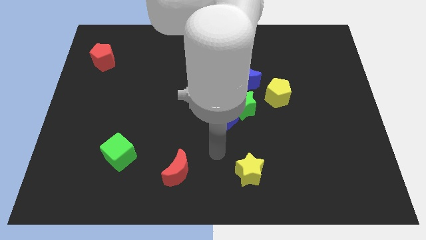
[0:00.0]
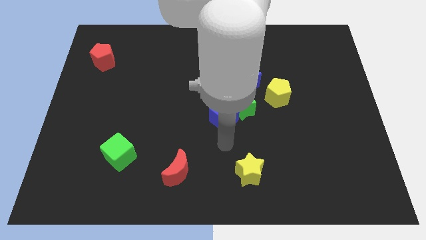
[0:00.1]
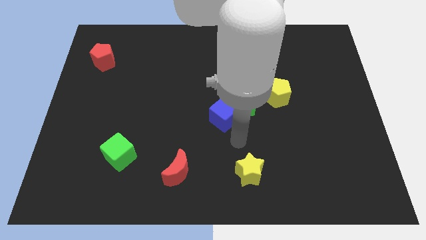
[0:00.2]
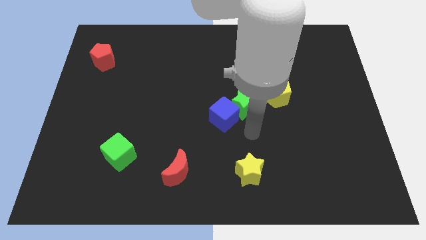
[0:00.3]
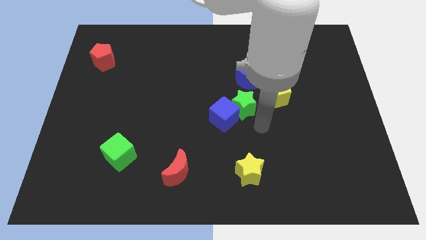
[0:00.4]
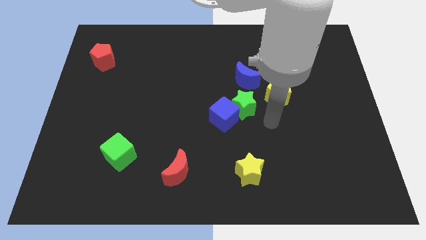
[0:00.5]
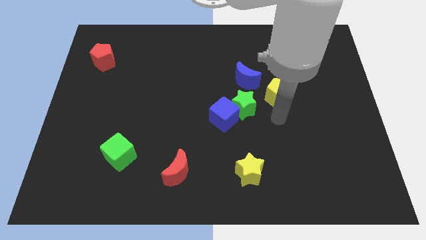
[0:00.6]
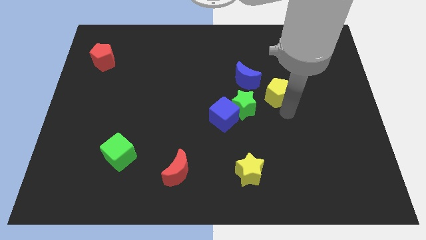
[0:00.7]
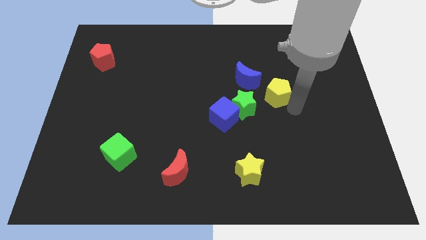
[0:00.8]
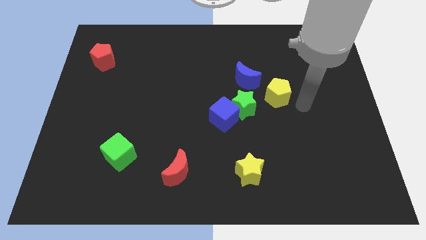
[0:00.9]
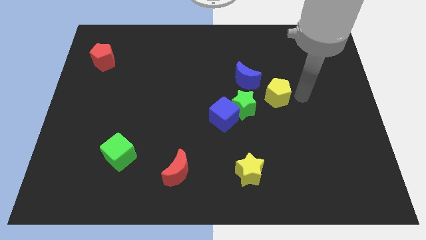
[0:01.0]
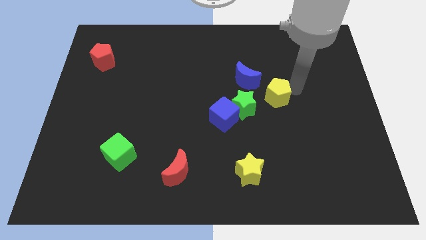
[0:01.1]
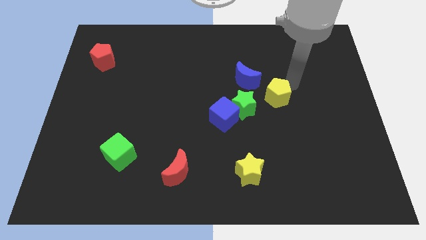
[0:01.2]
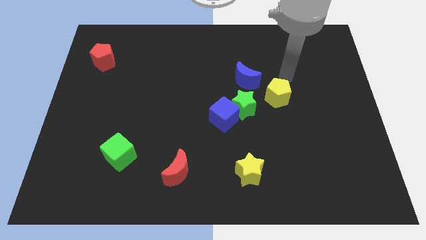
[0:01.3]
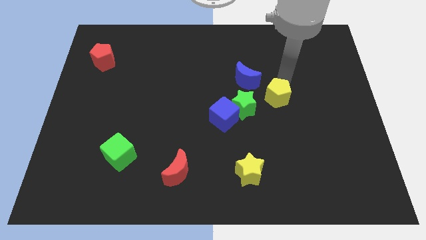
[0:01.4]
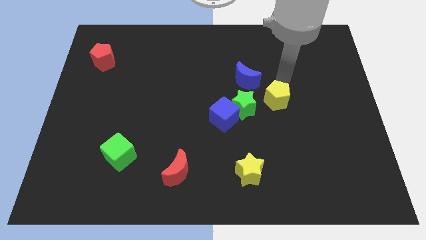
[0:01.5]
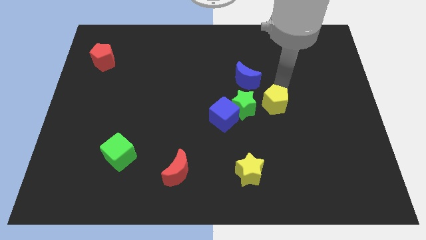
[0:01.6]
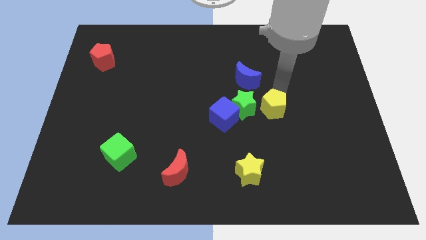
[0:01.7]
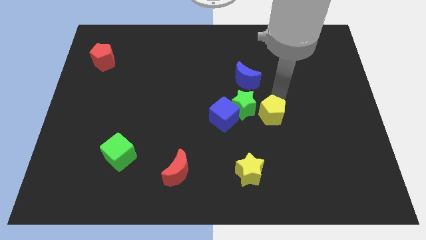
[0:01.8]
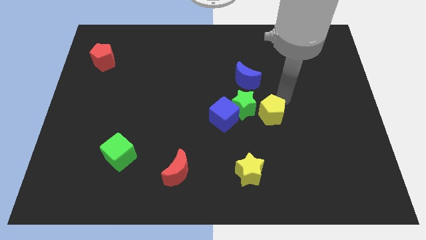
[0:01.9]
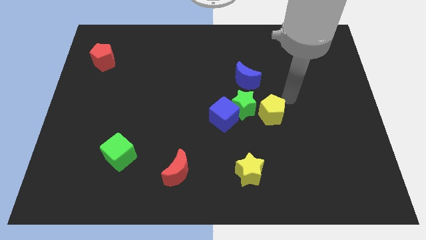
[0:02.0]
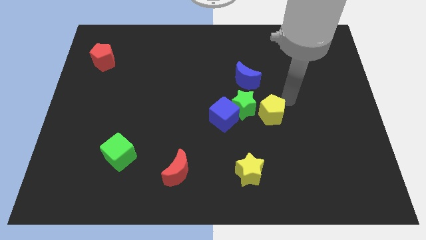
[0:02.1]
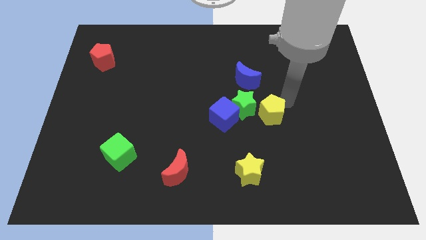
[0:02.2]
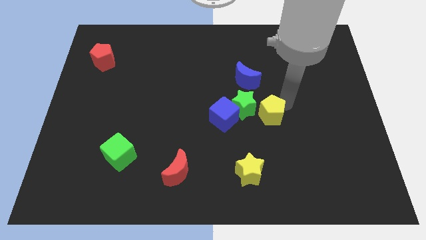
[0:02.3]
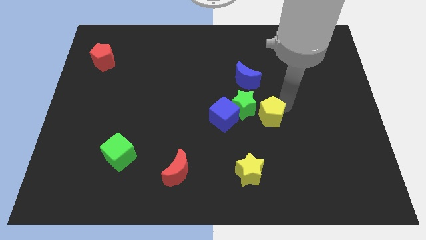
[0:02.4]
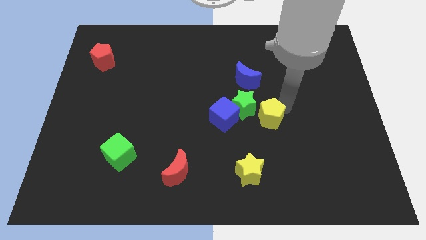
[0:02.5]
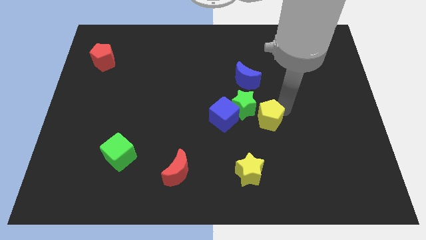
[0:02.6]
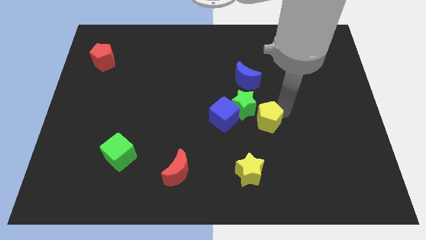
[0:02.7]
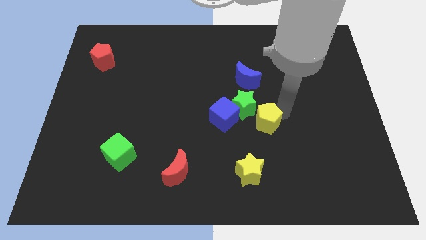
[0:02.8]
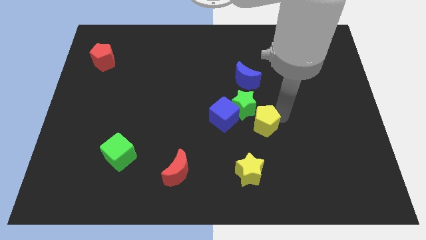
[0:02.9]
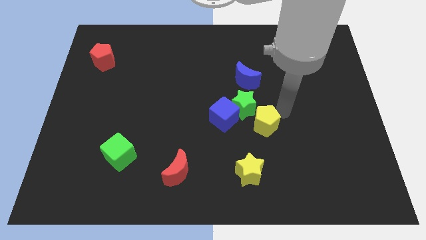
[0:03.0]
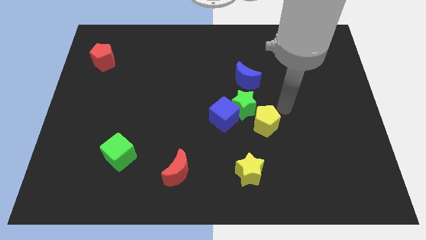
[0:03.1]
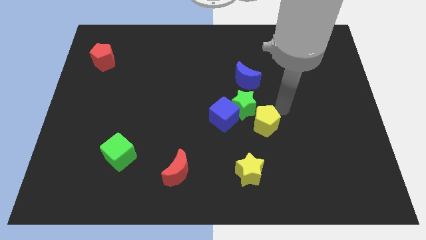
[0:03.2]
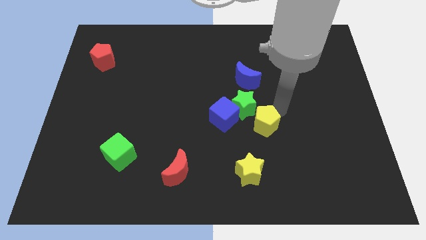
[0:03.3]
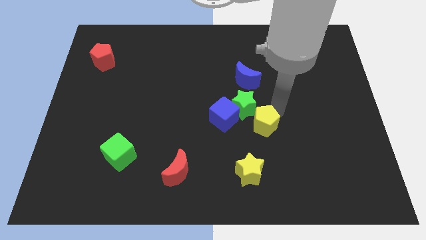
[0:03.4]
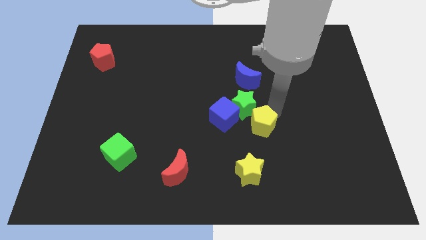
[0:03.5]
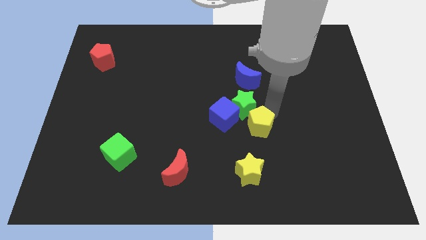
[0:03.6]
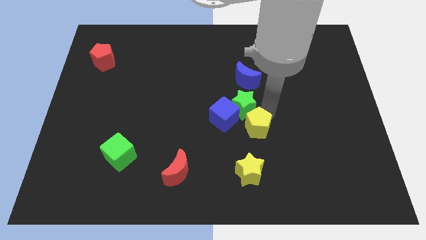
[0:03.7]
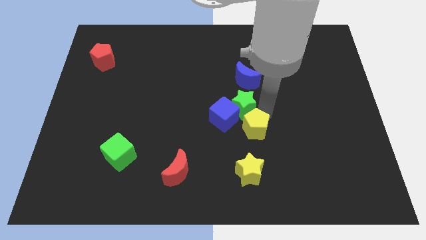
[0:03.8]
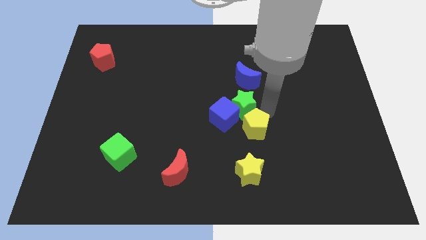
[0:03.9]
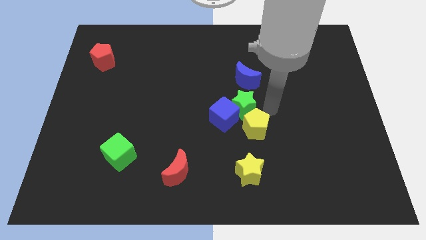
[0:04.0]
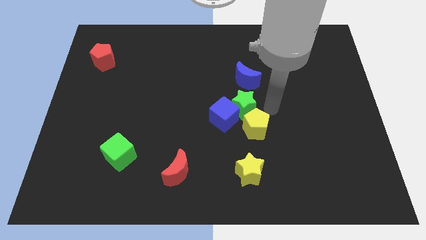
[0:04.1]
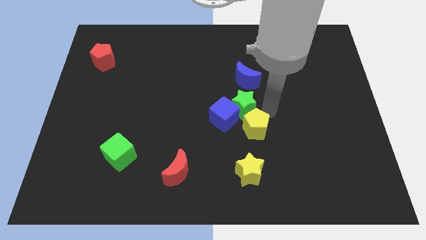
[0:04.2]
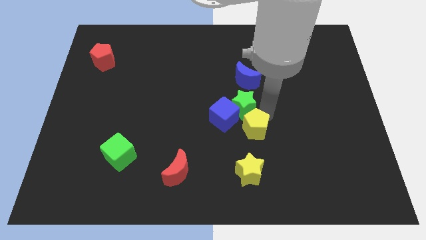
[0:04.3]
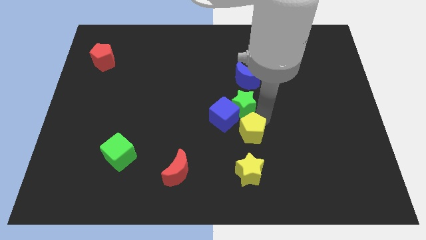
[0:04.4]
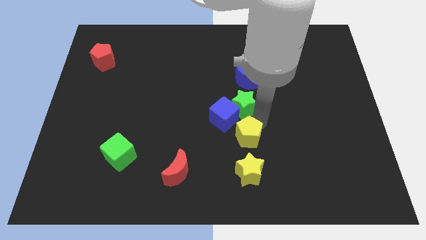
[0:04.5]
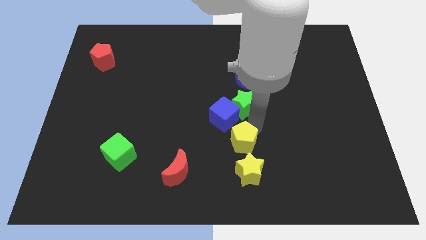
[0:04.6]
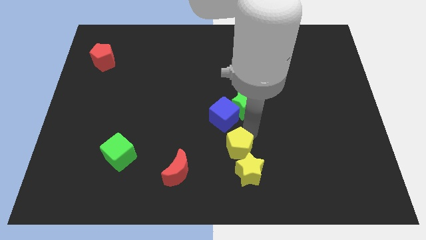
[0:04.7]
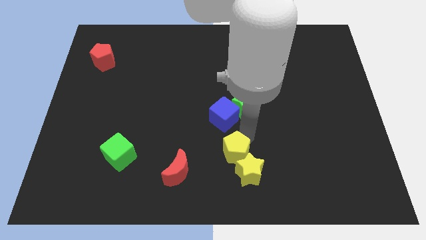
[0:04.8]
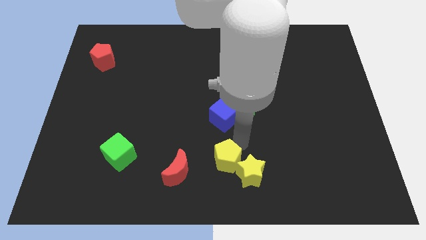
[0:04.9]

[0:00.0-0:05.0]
slide the yellow pentagon to the bottom side

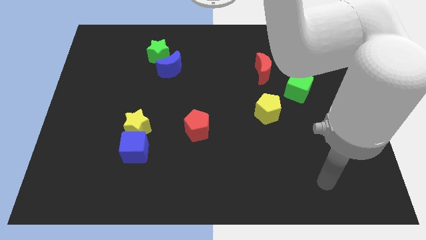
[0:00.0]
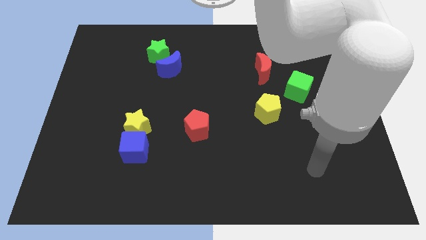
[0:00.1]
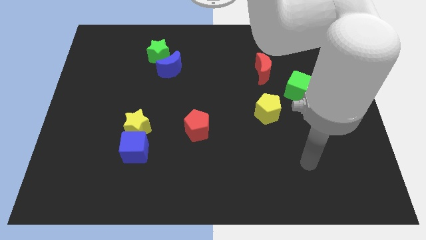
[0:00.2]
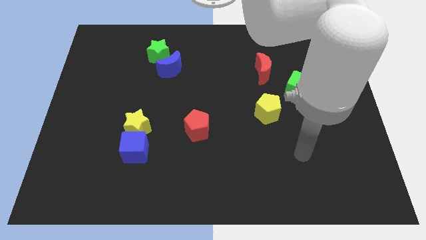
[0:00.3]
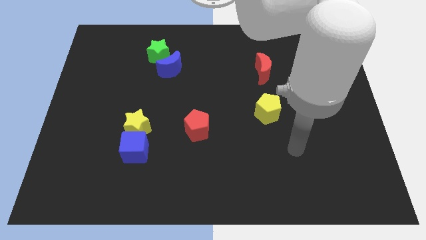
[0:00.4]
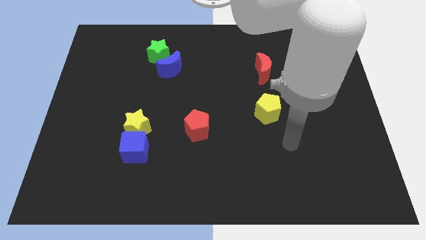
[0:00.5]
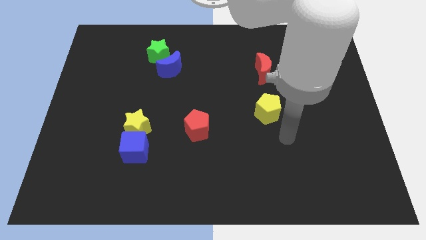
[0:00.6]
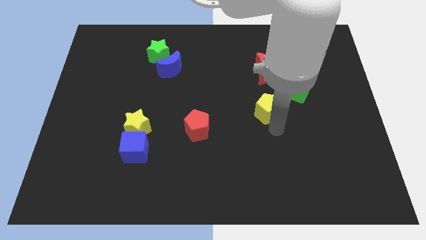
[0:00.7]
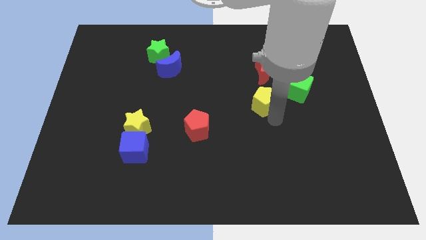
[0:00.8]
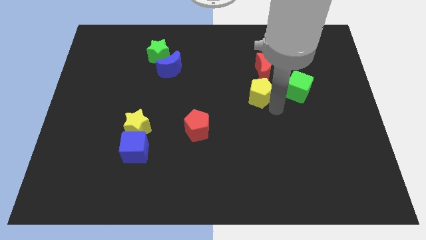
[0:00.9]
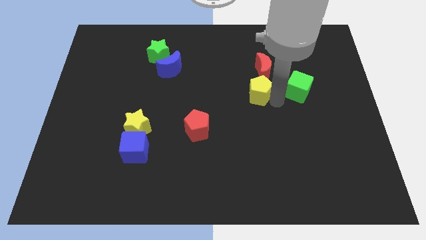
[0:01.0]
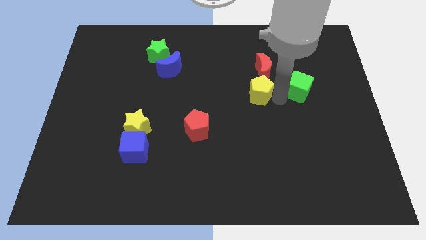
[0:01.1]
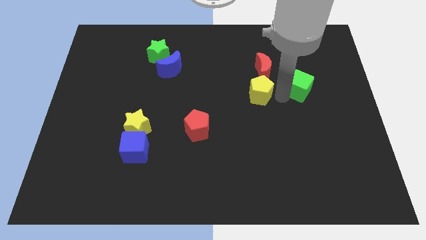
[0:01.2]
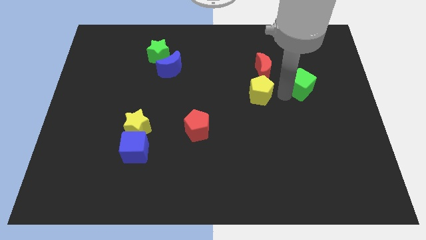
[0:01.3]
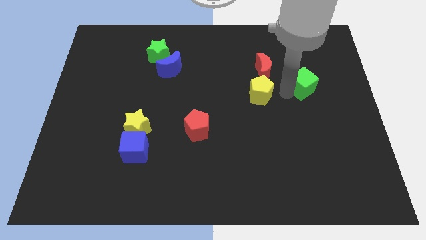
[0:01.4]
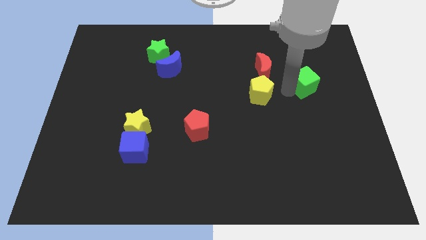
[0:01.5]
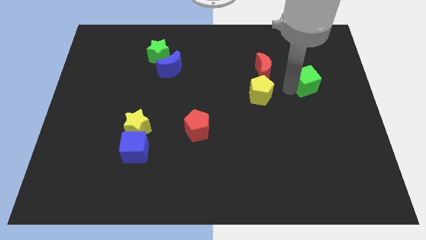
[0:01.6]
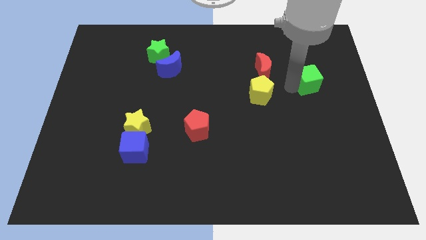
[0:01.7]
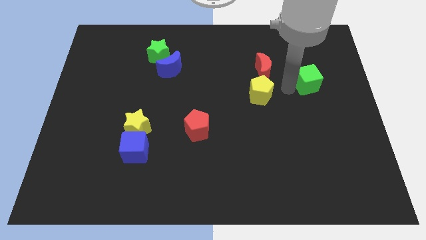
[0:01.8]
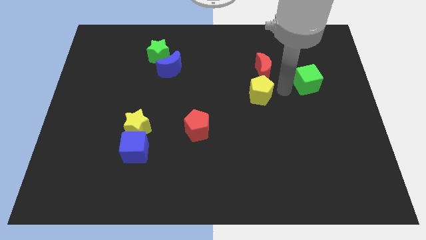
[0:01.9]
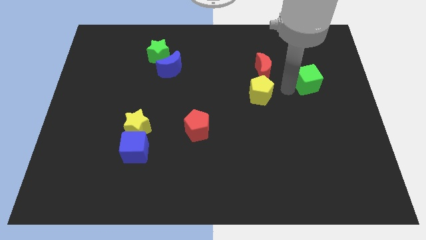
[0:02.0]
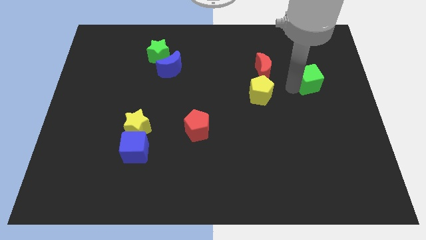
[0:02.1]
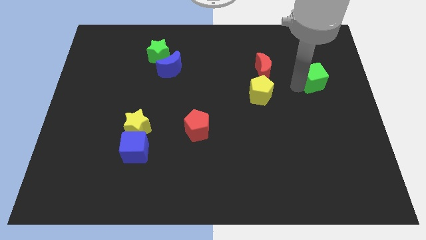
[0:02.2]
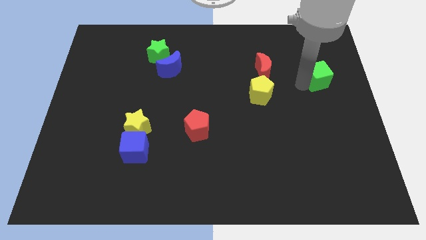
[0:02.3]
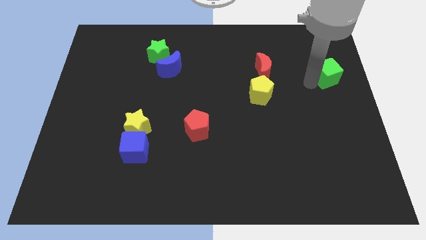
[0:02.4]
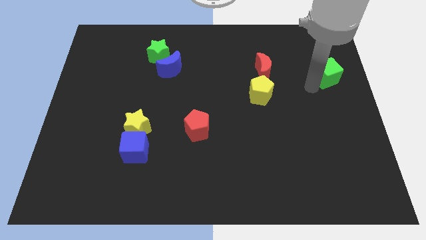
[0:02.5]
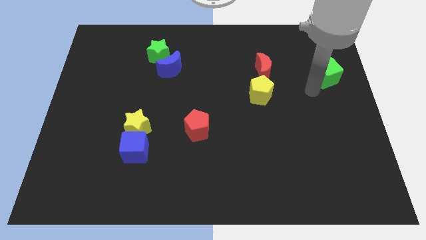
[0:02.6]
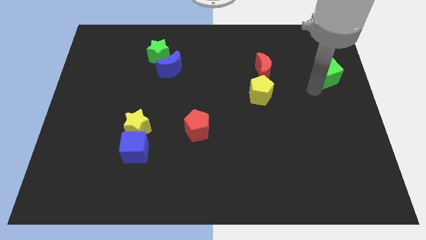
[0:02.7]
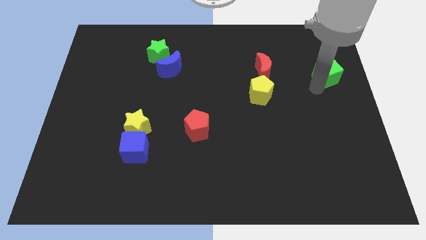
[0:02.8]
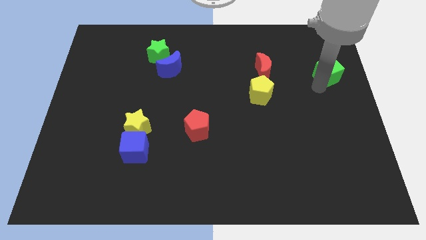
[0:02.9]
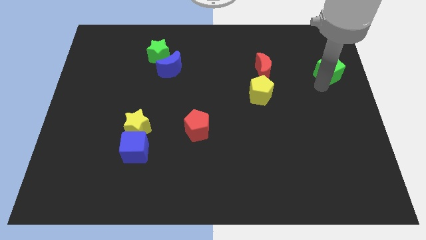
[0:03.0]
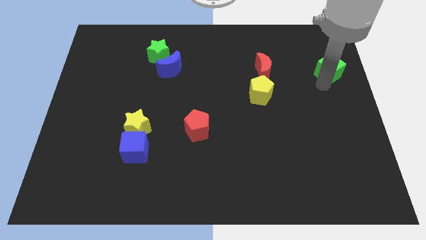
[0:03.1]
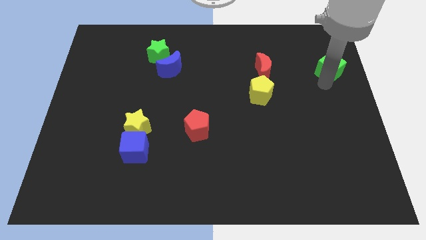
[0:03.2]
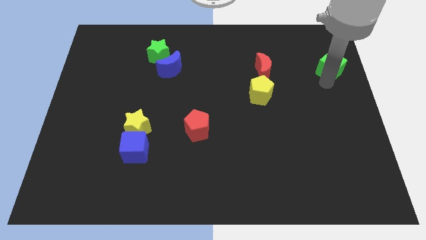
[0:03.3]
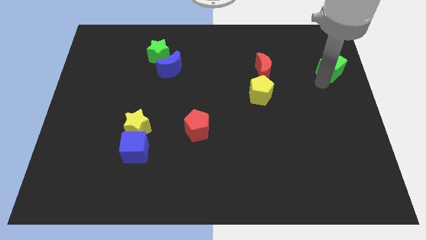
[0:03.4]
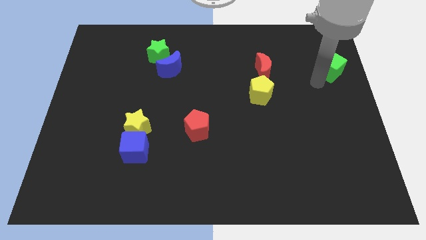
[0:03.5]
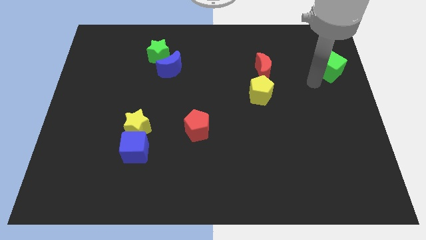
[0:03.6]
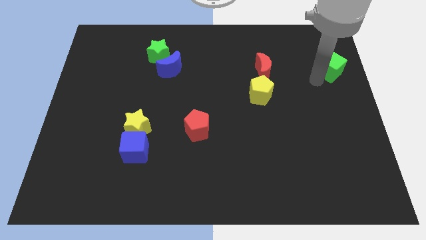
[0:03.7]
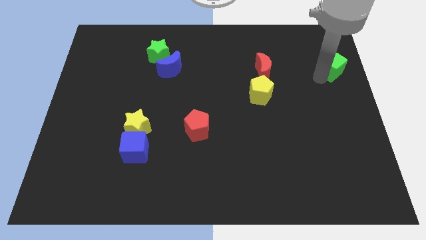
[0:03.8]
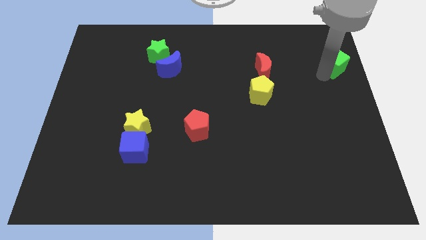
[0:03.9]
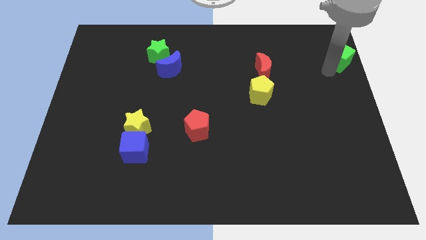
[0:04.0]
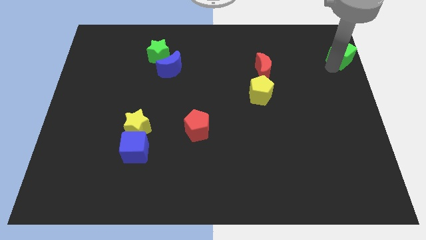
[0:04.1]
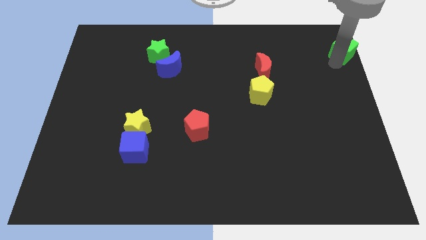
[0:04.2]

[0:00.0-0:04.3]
move the green cube to the top right corner
